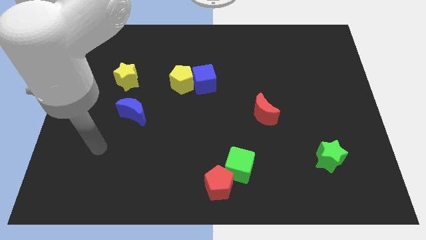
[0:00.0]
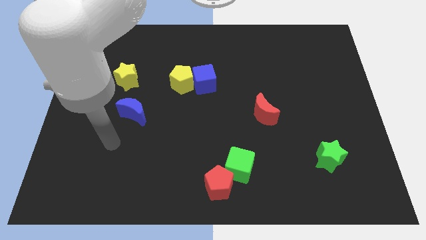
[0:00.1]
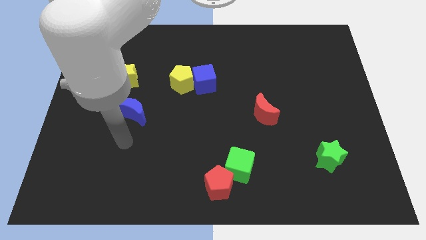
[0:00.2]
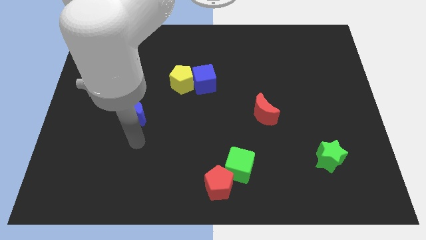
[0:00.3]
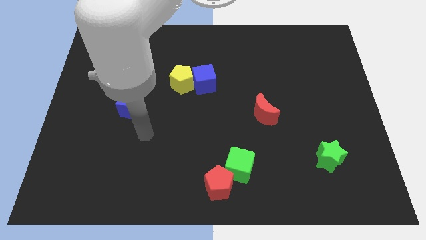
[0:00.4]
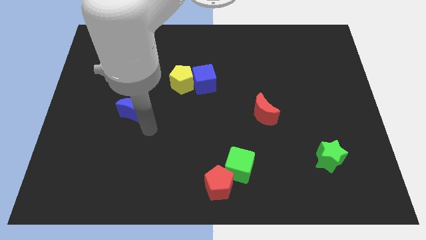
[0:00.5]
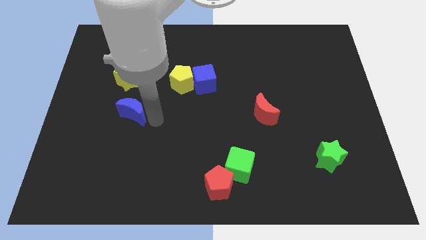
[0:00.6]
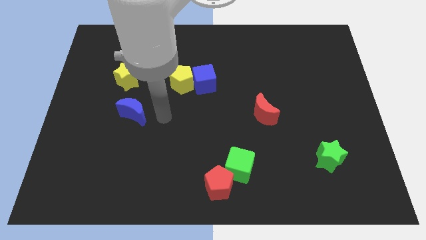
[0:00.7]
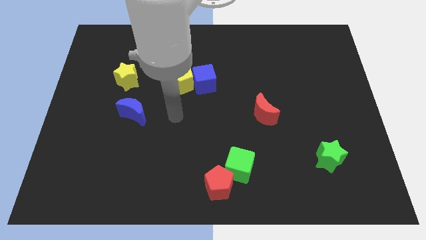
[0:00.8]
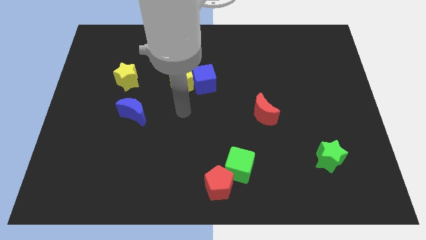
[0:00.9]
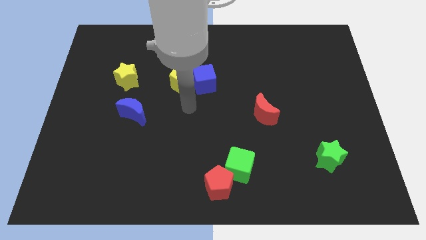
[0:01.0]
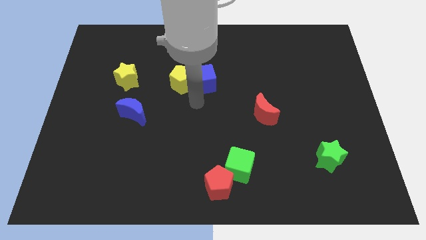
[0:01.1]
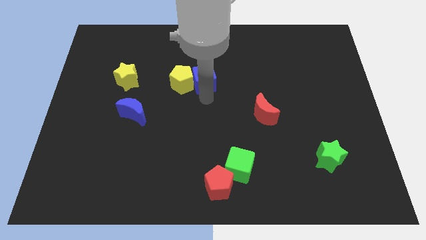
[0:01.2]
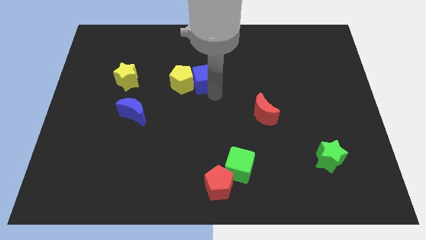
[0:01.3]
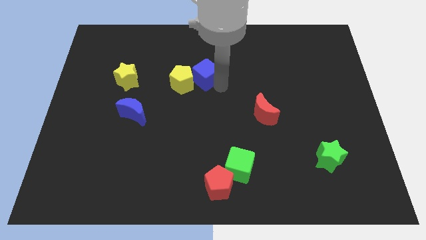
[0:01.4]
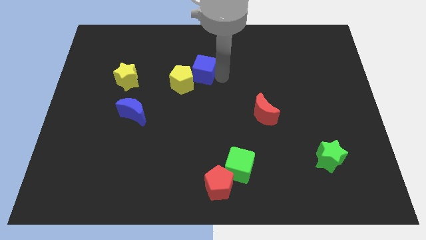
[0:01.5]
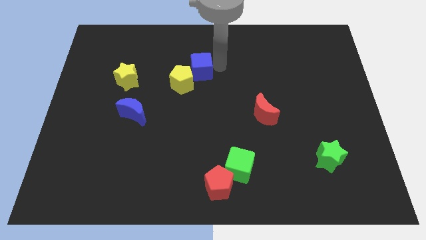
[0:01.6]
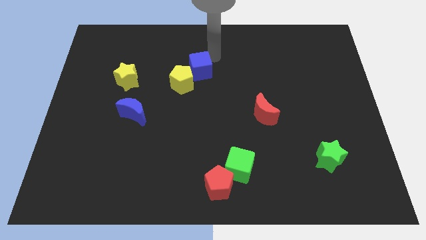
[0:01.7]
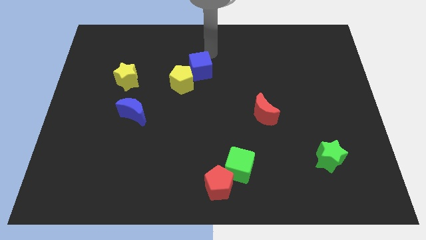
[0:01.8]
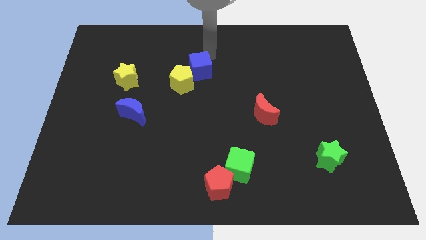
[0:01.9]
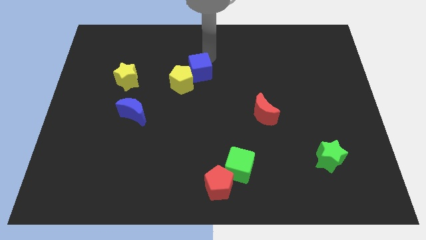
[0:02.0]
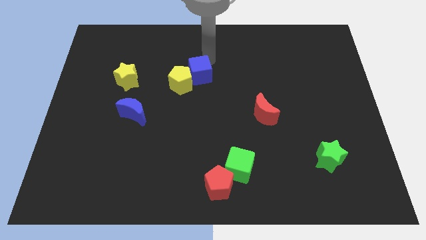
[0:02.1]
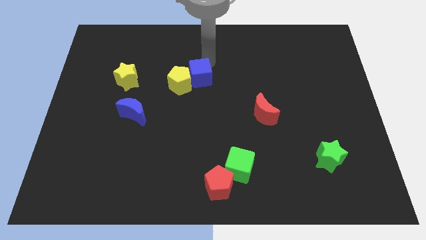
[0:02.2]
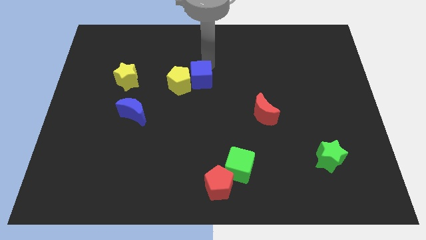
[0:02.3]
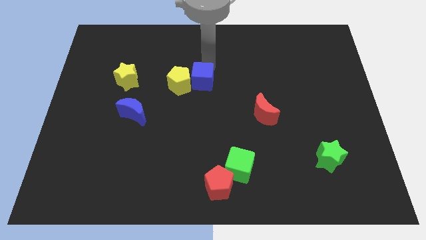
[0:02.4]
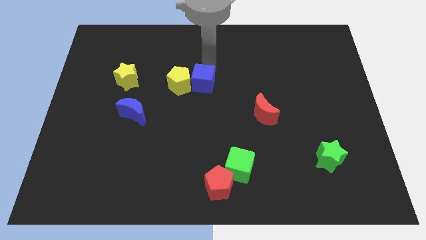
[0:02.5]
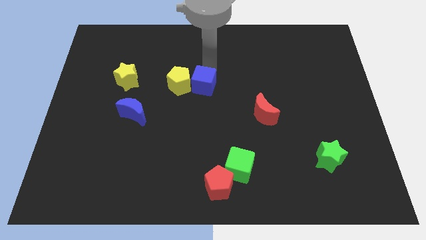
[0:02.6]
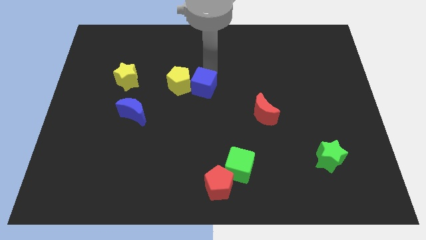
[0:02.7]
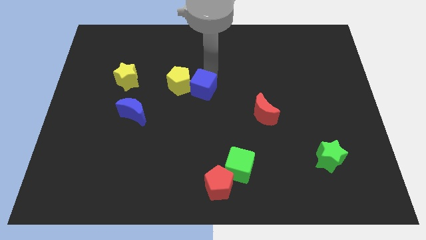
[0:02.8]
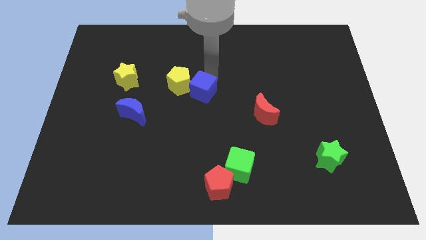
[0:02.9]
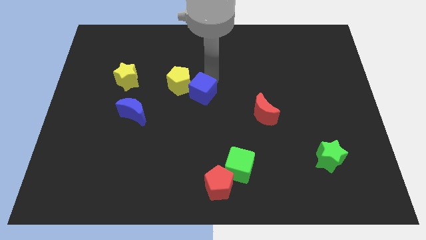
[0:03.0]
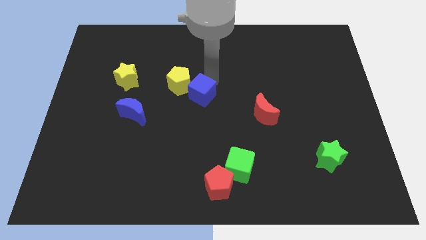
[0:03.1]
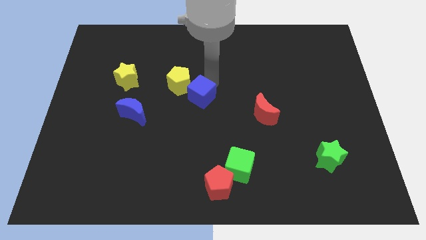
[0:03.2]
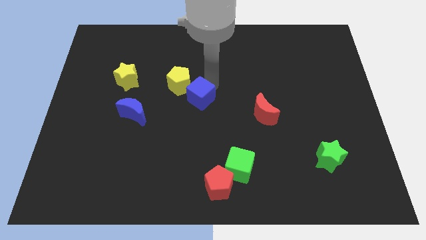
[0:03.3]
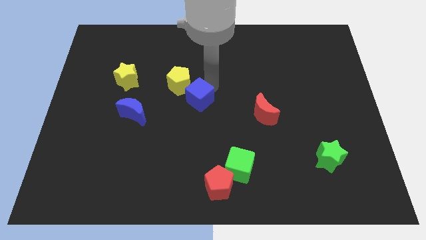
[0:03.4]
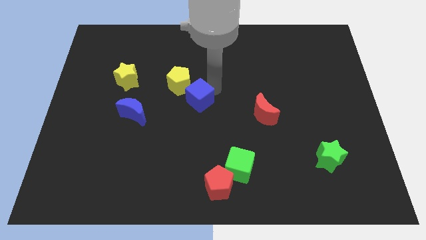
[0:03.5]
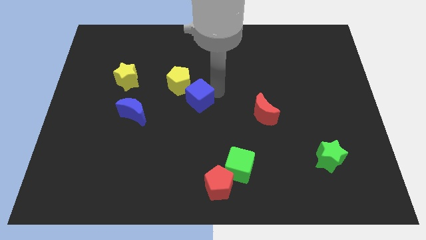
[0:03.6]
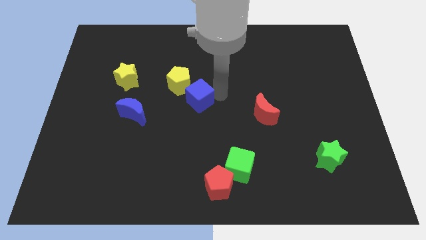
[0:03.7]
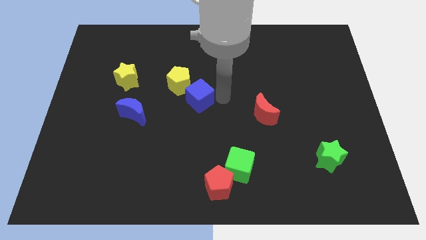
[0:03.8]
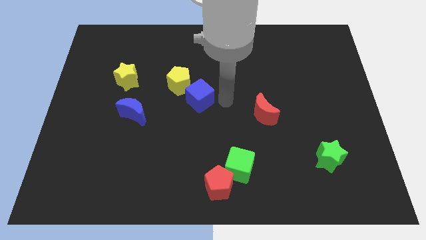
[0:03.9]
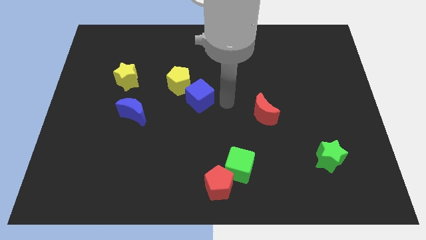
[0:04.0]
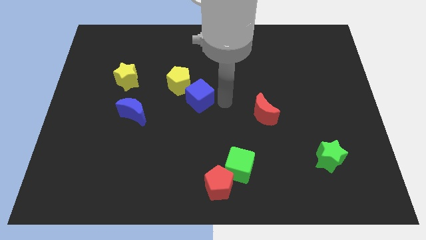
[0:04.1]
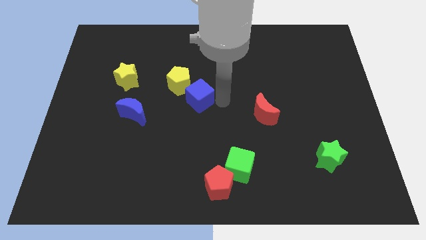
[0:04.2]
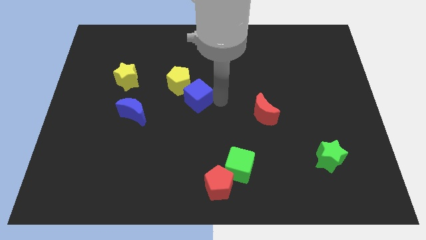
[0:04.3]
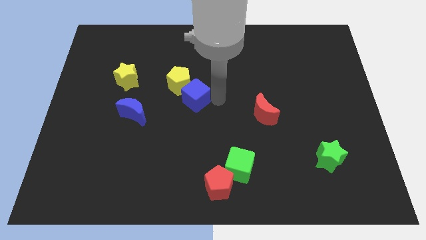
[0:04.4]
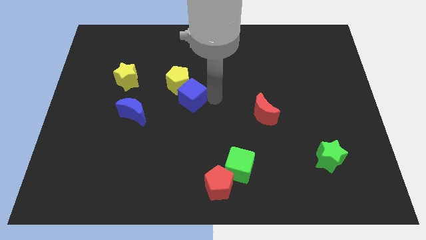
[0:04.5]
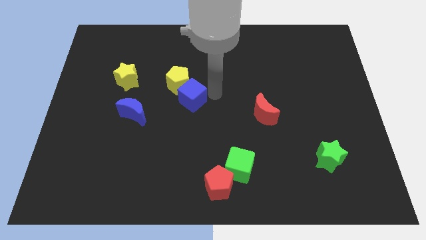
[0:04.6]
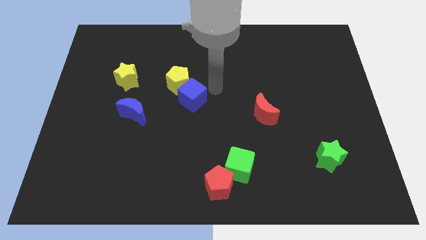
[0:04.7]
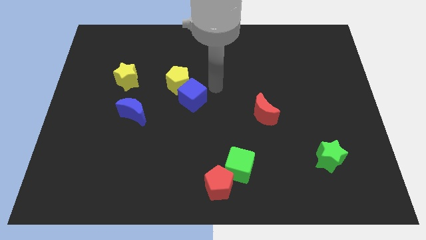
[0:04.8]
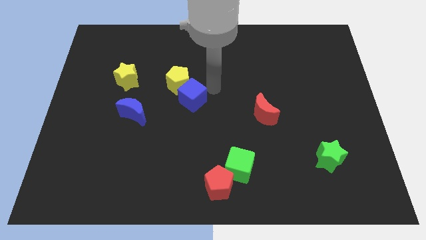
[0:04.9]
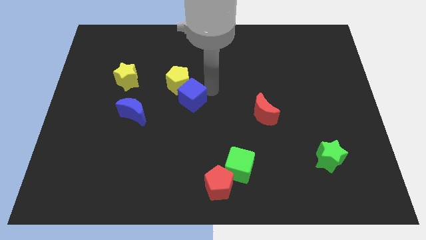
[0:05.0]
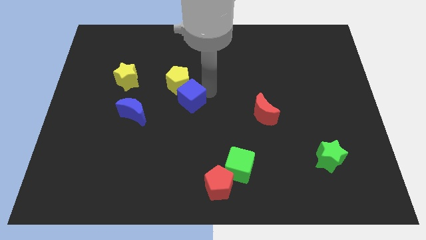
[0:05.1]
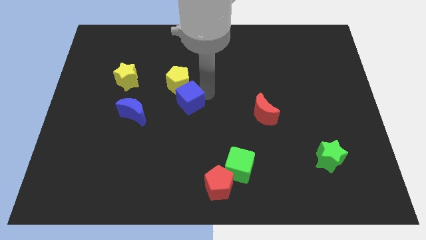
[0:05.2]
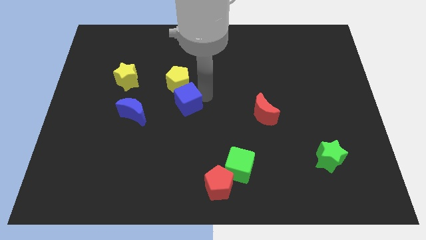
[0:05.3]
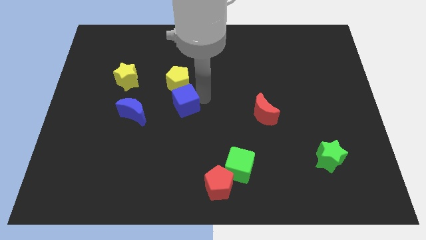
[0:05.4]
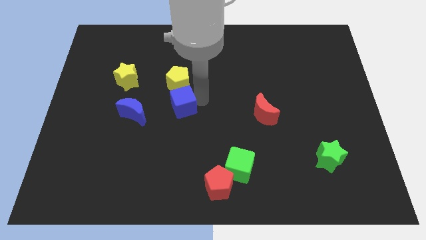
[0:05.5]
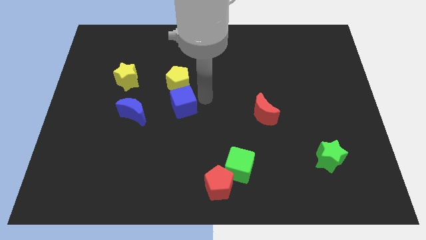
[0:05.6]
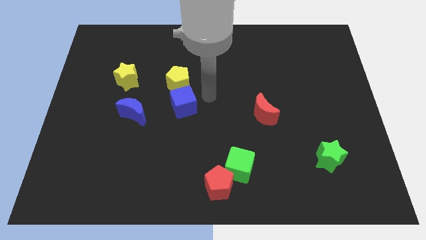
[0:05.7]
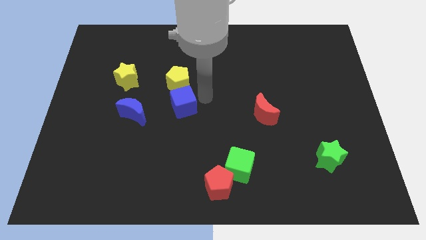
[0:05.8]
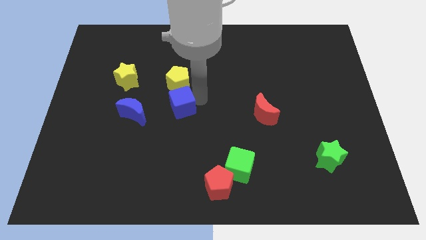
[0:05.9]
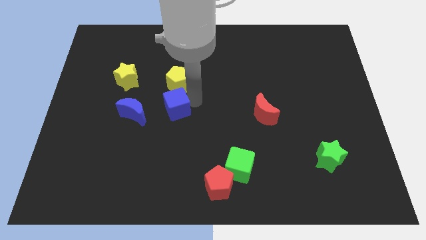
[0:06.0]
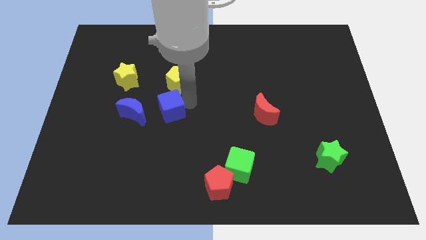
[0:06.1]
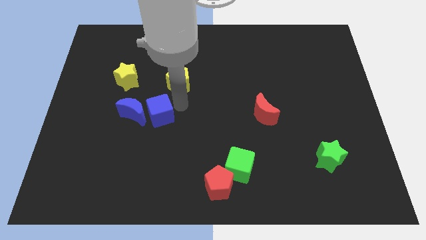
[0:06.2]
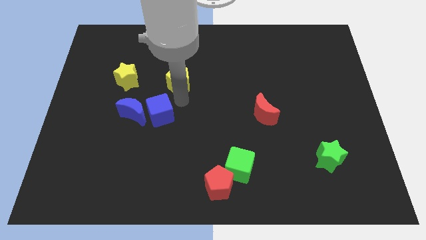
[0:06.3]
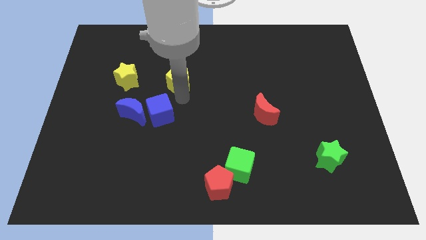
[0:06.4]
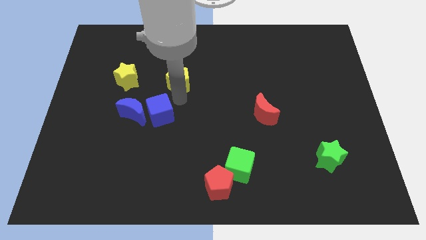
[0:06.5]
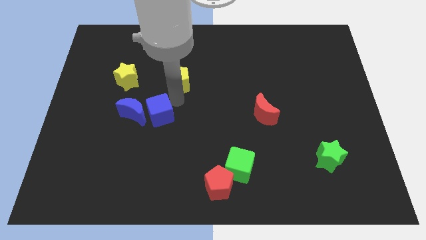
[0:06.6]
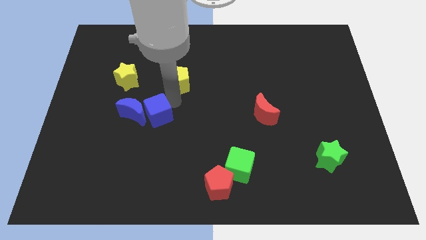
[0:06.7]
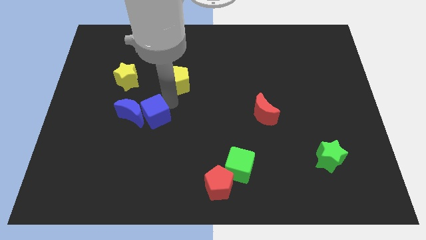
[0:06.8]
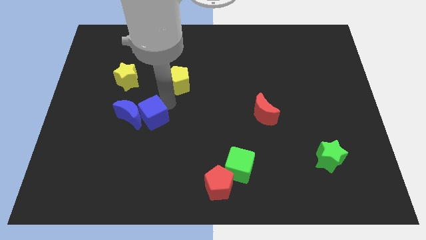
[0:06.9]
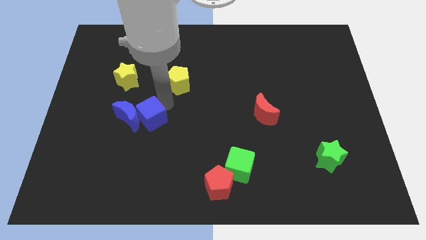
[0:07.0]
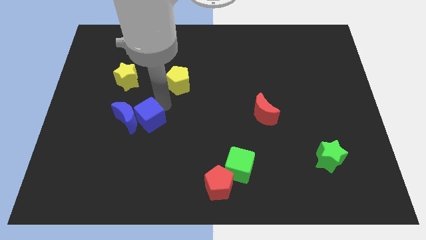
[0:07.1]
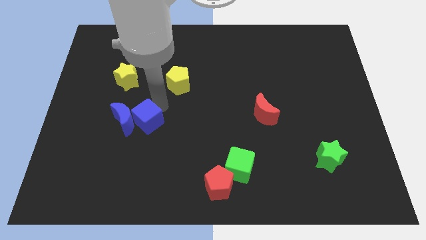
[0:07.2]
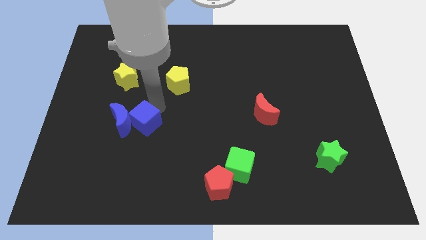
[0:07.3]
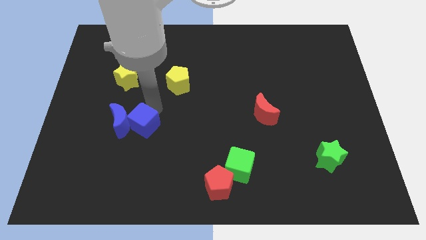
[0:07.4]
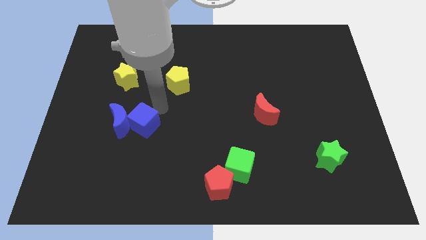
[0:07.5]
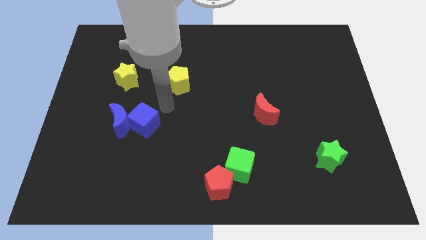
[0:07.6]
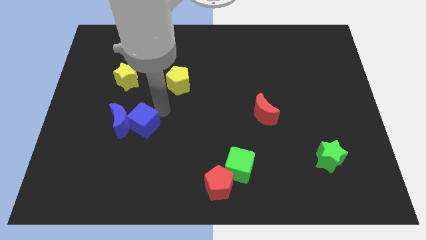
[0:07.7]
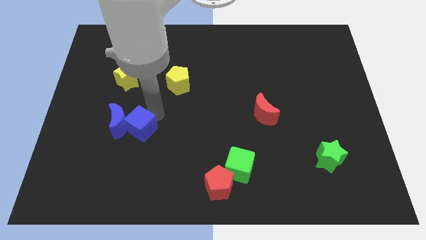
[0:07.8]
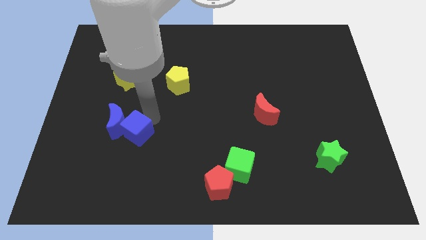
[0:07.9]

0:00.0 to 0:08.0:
slide the blue cube diagonally down and to the left
